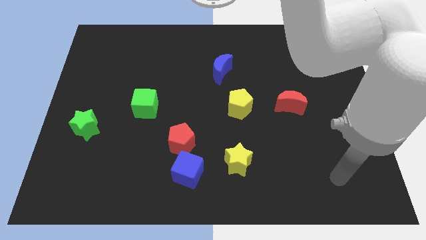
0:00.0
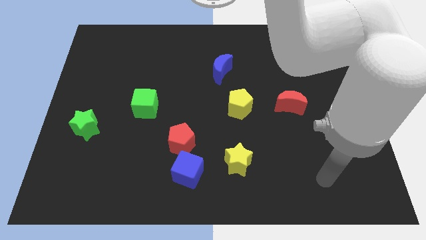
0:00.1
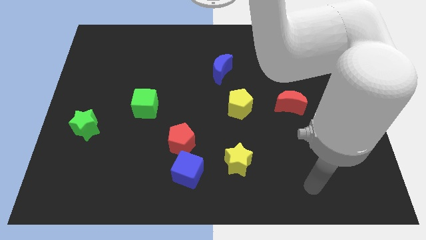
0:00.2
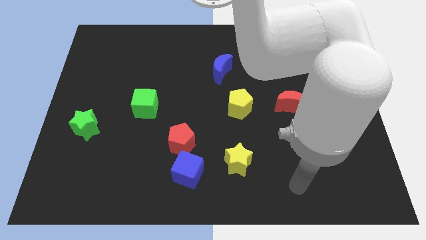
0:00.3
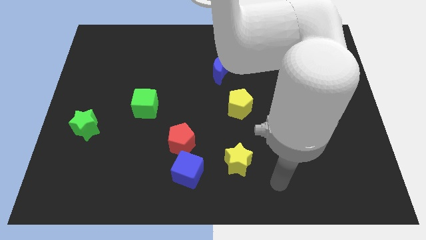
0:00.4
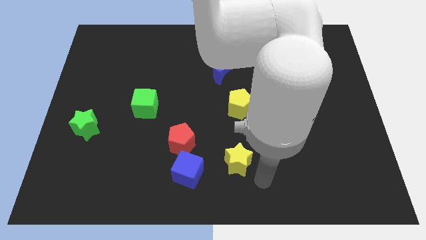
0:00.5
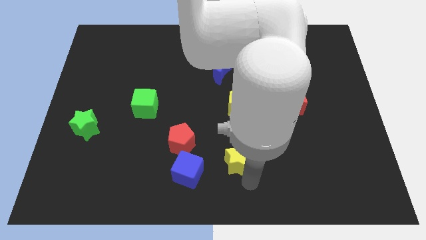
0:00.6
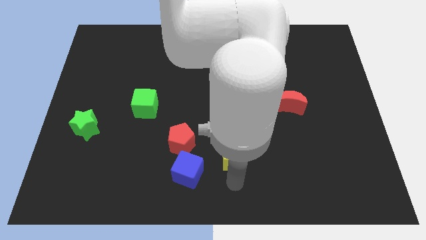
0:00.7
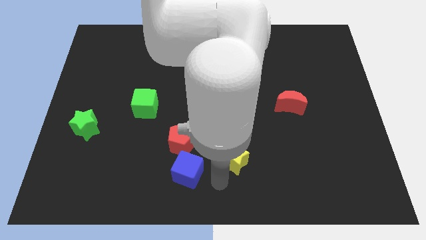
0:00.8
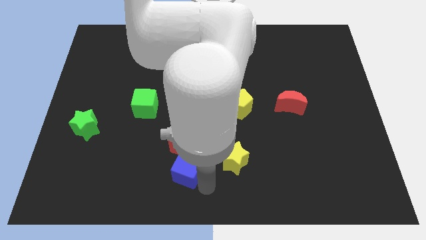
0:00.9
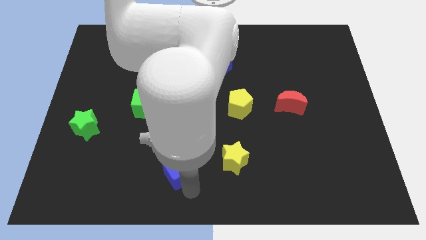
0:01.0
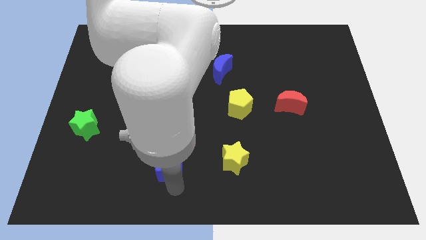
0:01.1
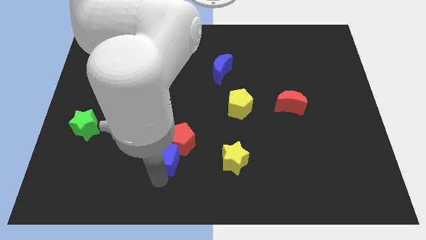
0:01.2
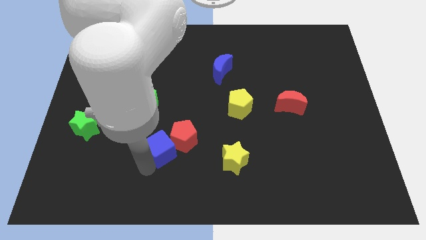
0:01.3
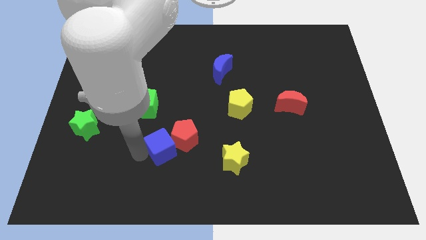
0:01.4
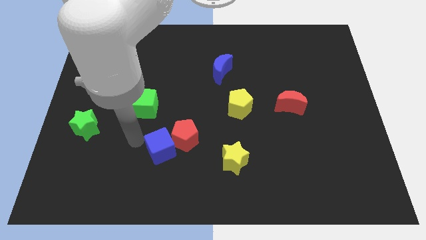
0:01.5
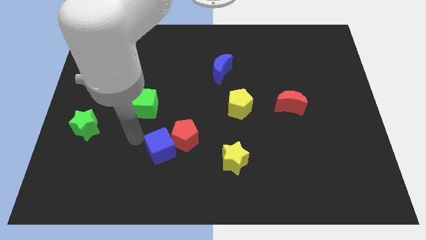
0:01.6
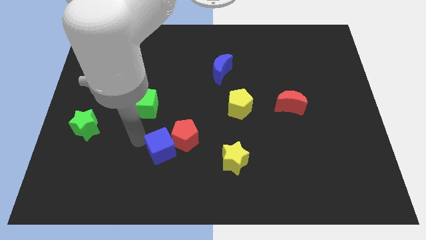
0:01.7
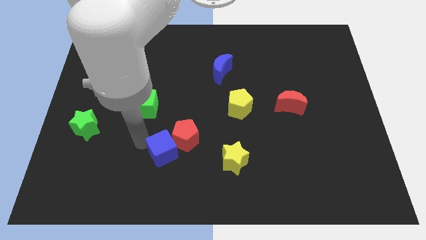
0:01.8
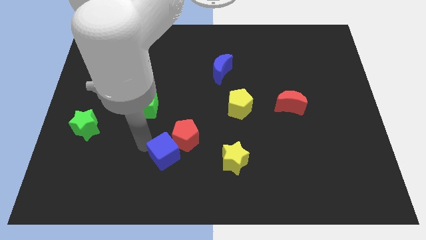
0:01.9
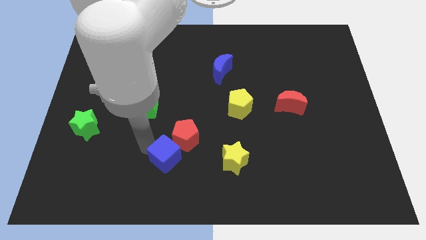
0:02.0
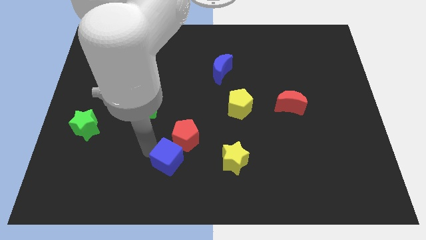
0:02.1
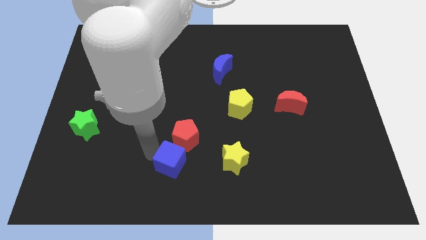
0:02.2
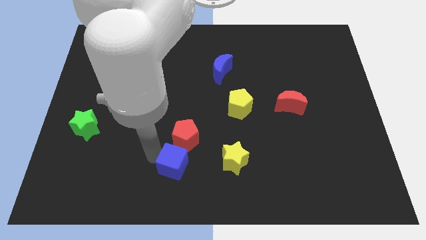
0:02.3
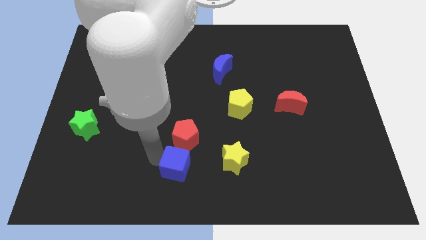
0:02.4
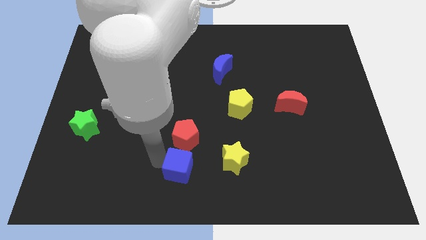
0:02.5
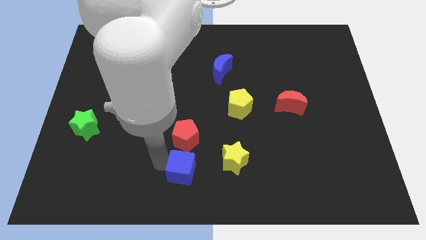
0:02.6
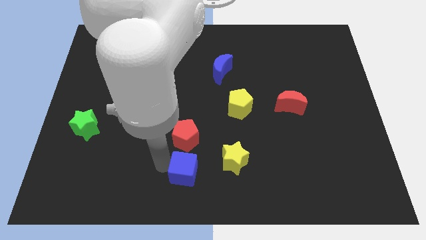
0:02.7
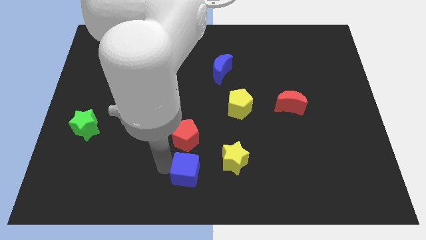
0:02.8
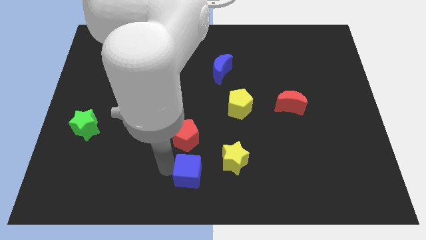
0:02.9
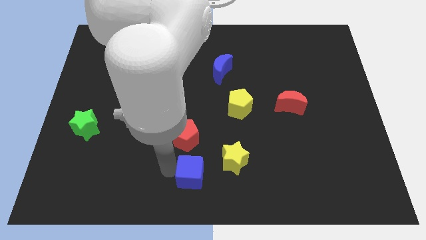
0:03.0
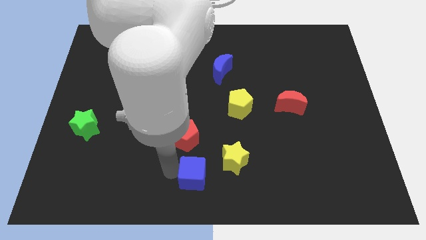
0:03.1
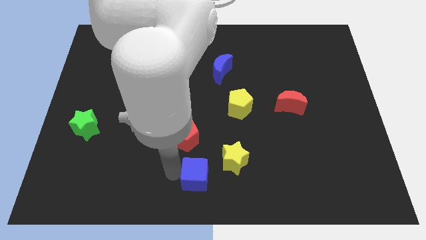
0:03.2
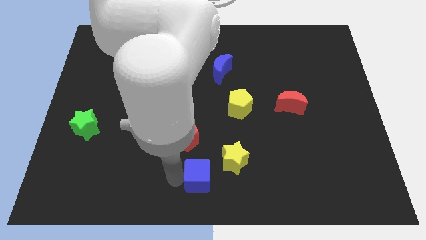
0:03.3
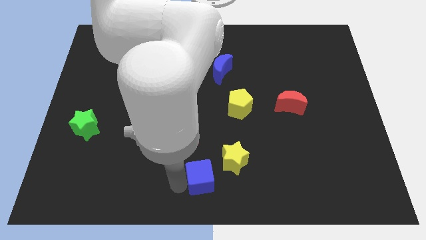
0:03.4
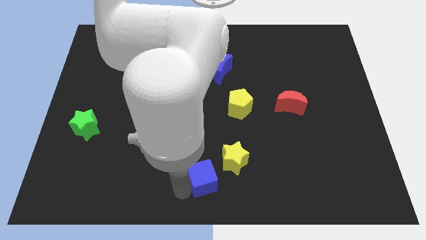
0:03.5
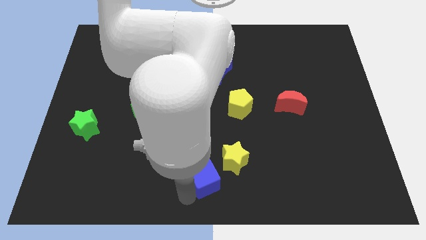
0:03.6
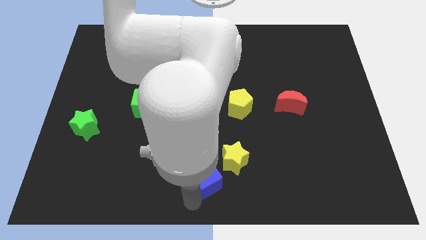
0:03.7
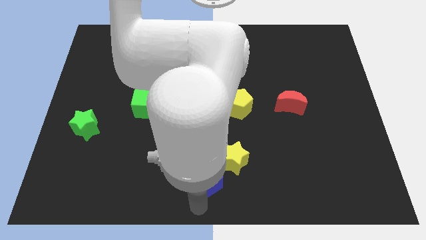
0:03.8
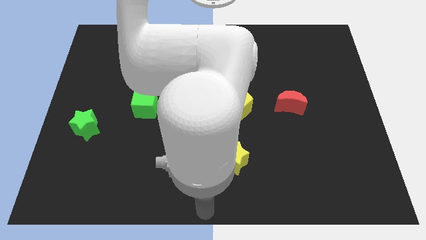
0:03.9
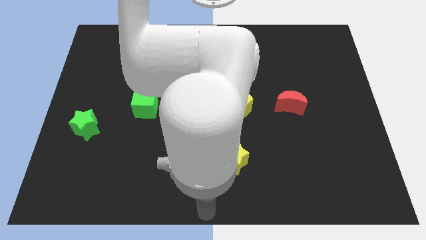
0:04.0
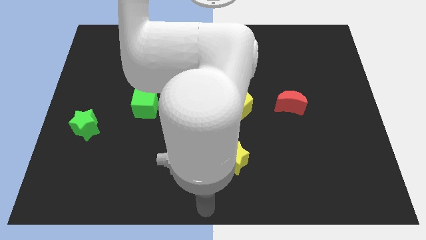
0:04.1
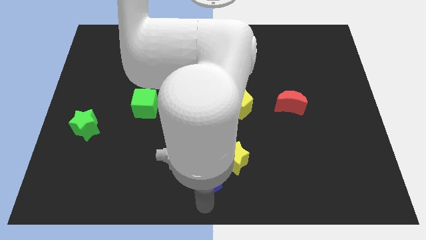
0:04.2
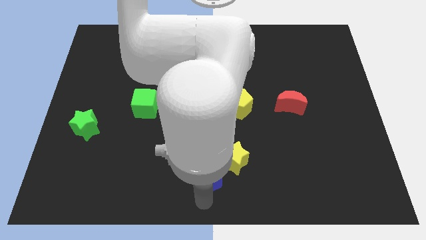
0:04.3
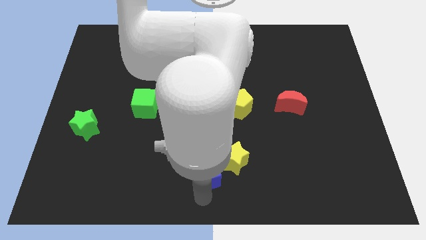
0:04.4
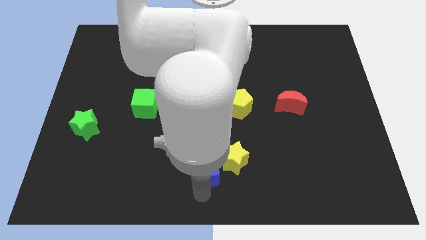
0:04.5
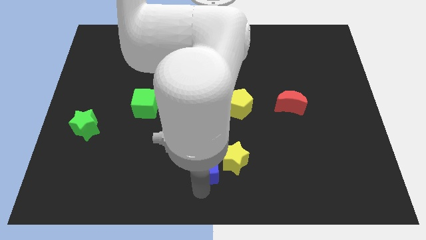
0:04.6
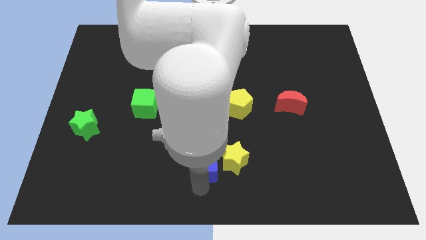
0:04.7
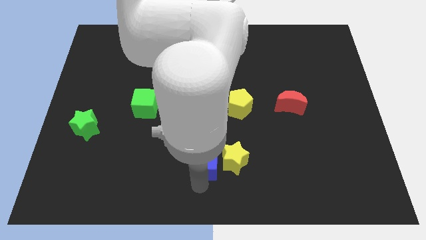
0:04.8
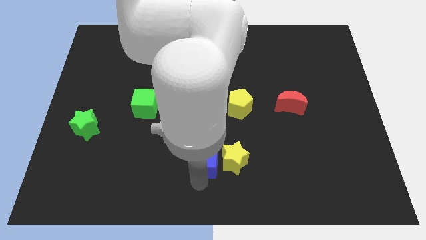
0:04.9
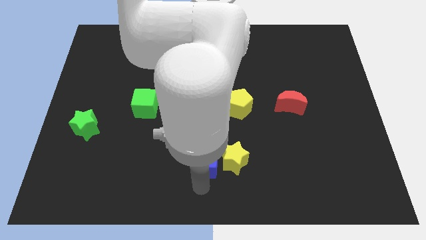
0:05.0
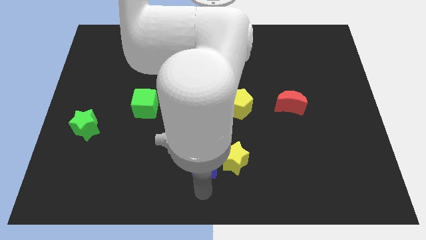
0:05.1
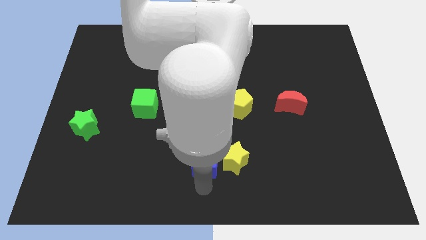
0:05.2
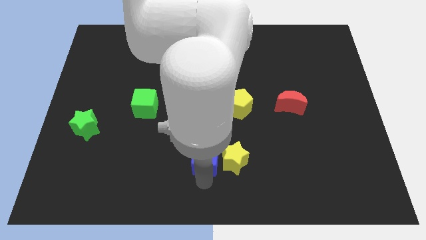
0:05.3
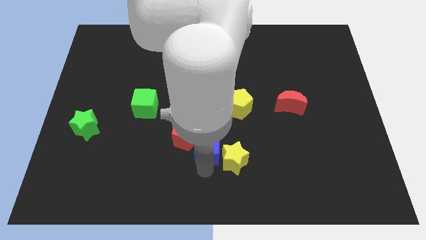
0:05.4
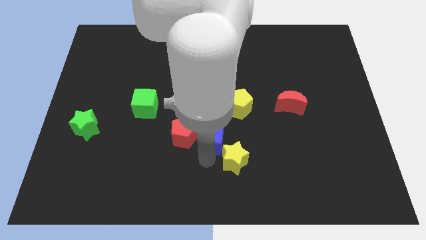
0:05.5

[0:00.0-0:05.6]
slide the blue cube to the center of the board

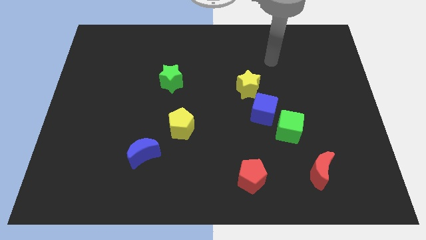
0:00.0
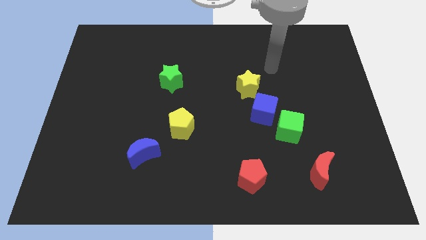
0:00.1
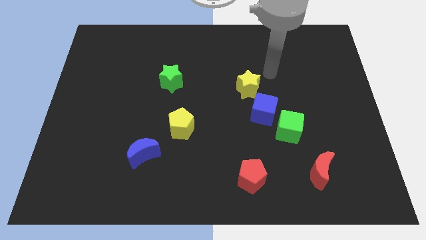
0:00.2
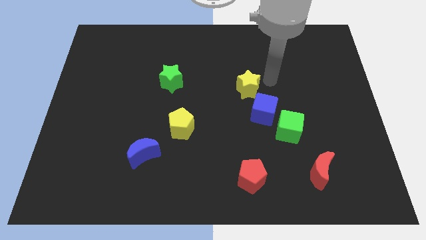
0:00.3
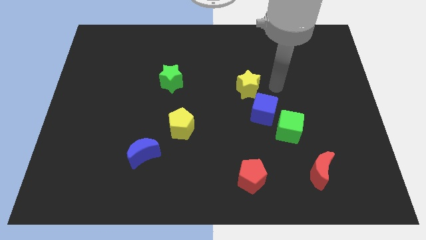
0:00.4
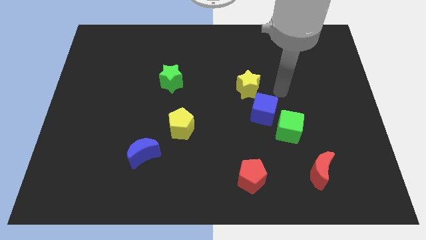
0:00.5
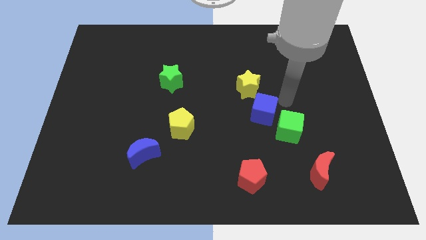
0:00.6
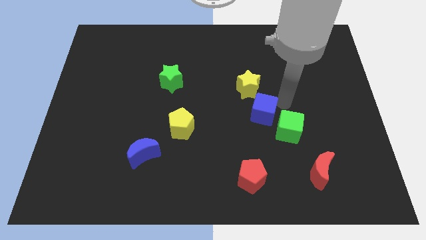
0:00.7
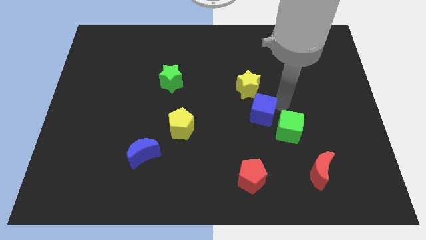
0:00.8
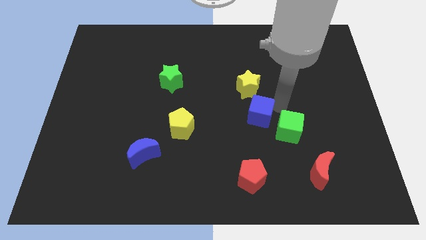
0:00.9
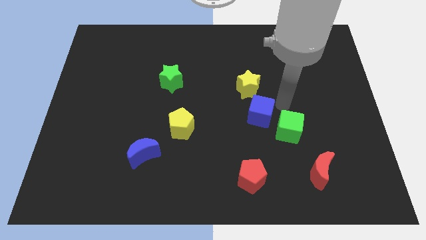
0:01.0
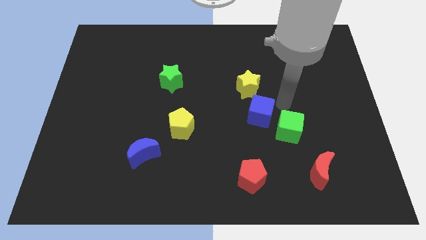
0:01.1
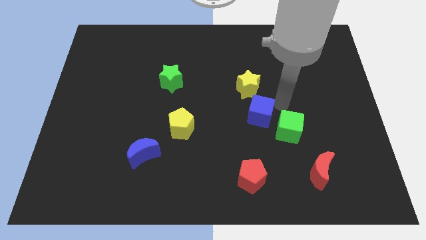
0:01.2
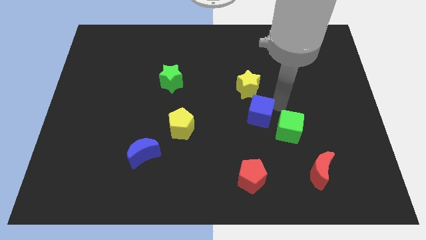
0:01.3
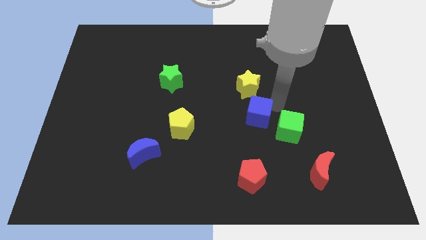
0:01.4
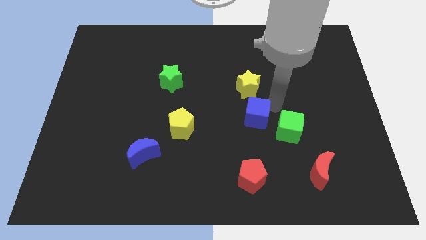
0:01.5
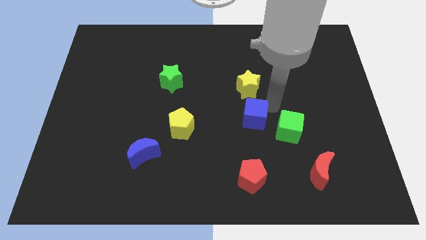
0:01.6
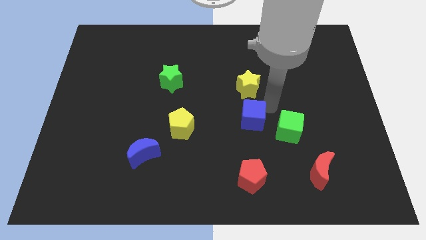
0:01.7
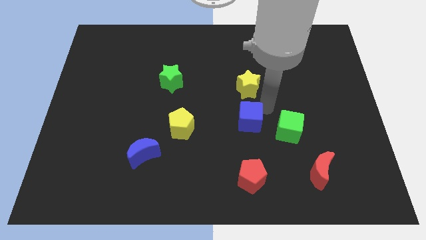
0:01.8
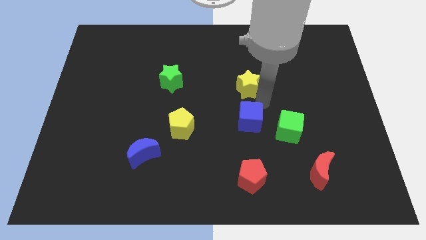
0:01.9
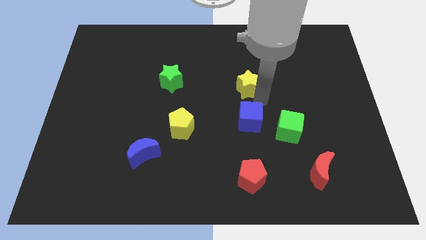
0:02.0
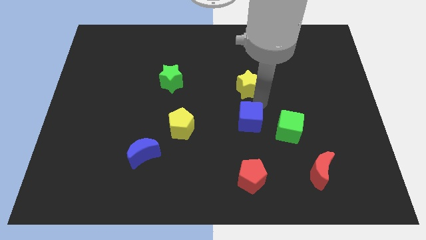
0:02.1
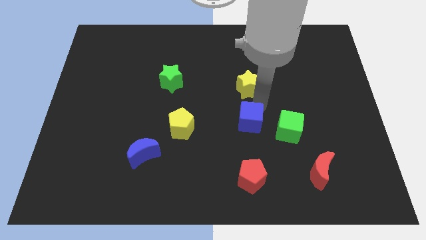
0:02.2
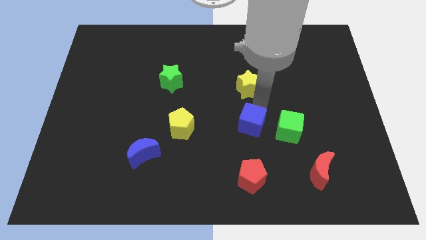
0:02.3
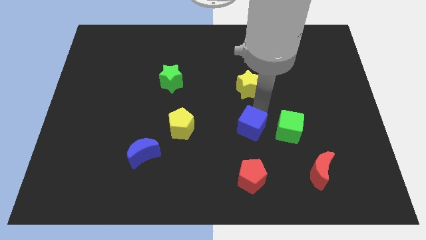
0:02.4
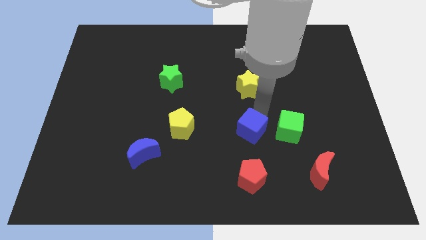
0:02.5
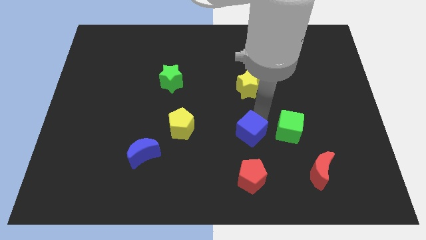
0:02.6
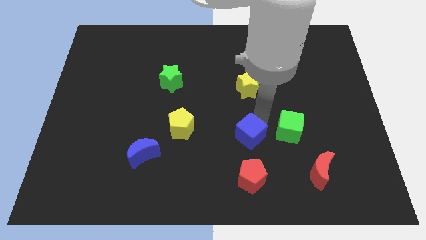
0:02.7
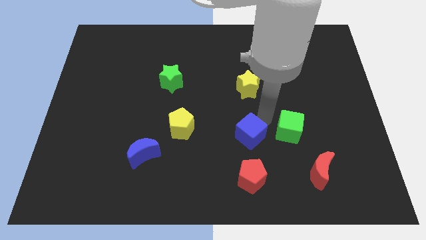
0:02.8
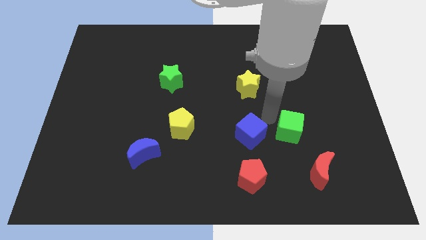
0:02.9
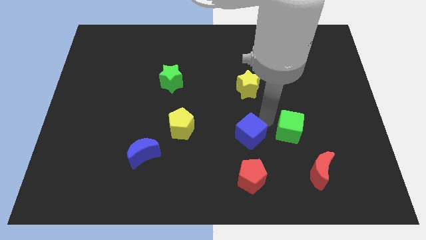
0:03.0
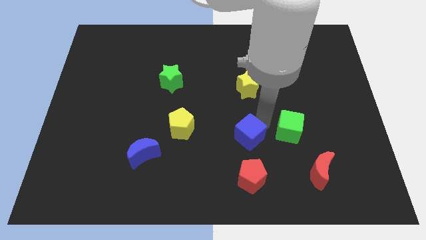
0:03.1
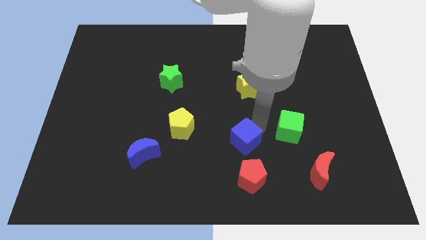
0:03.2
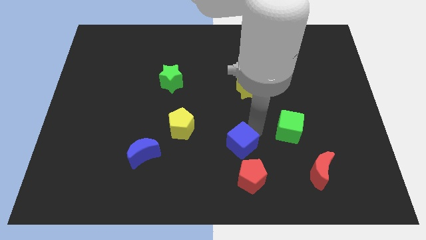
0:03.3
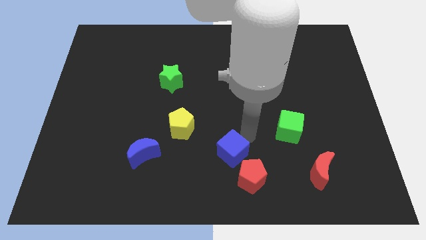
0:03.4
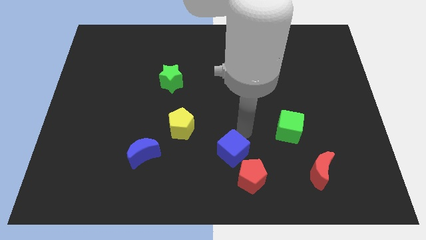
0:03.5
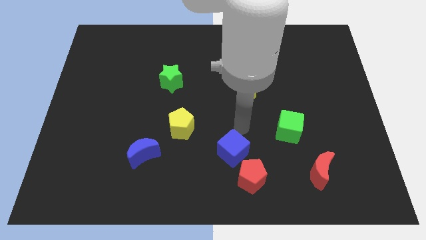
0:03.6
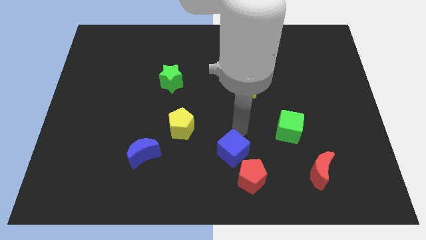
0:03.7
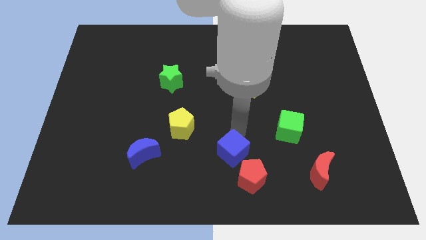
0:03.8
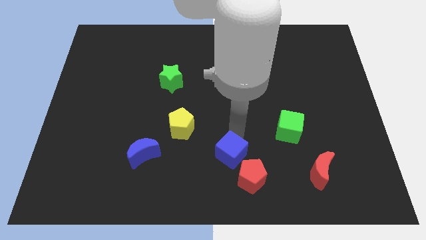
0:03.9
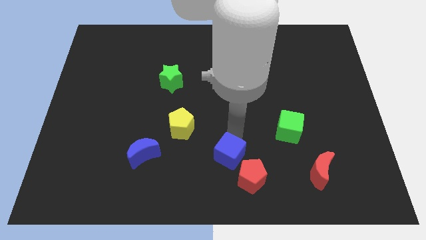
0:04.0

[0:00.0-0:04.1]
move the blue cube to the bottom side
